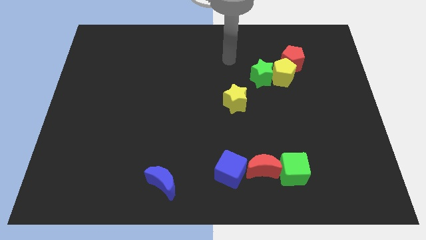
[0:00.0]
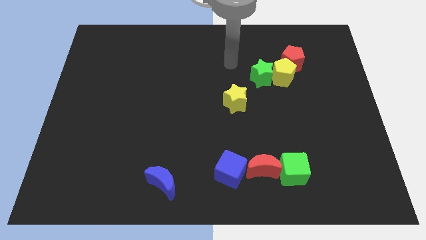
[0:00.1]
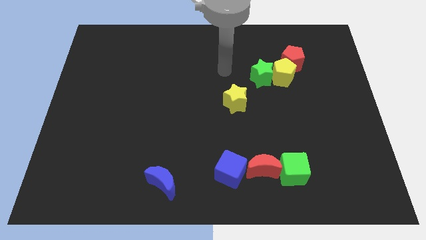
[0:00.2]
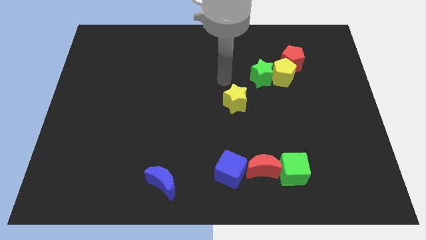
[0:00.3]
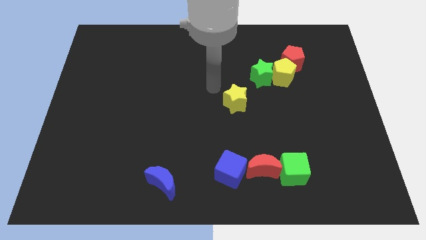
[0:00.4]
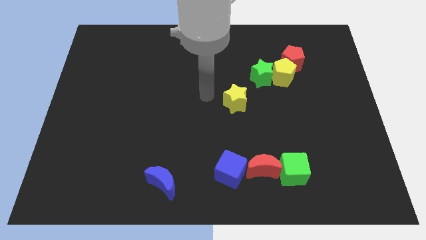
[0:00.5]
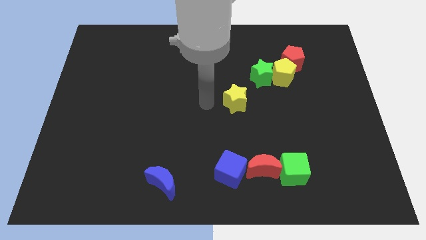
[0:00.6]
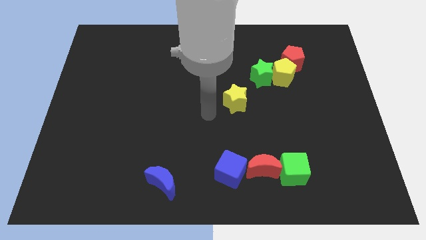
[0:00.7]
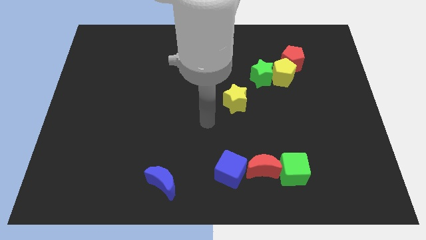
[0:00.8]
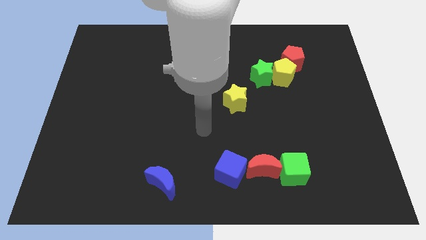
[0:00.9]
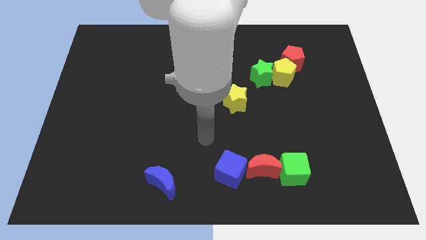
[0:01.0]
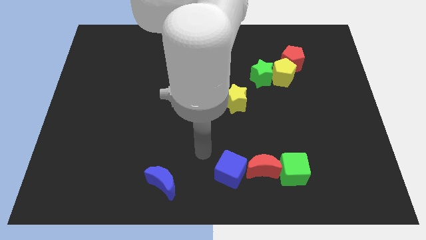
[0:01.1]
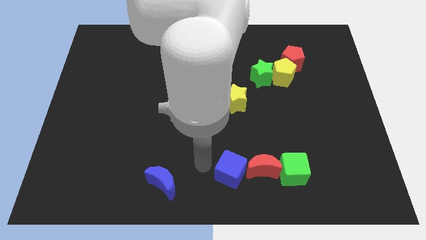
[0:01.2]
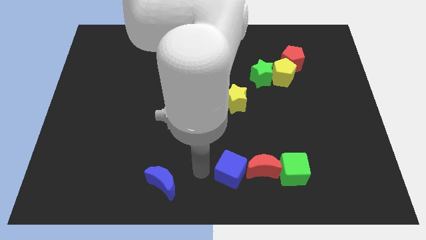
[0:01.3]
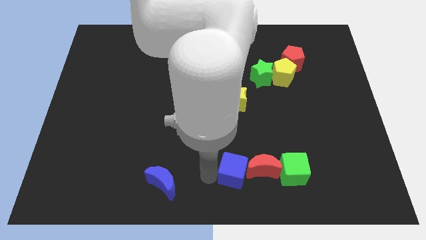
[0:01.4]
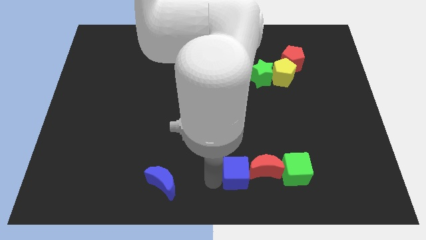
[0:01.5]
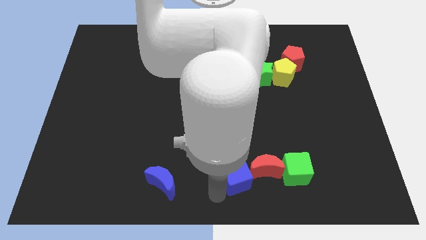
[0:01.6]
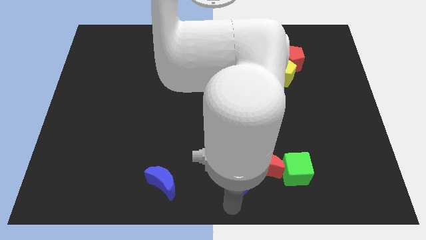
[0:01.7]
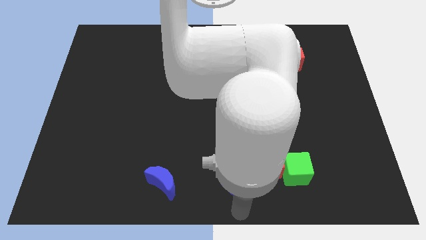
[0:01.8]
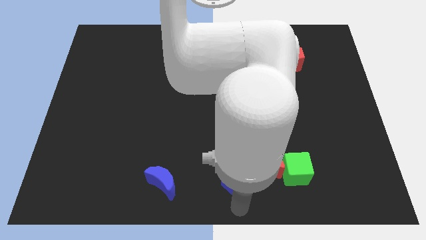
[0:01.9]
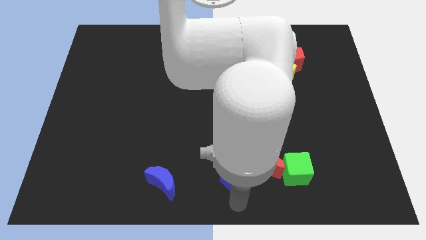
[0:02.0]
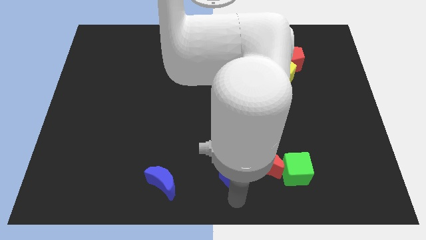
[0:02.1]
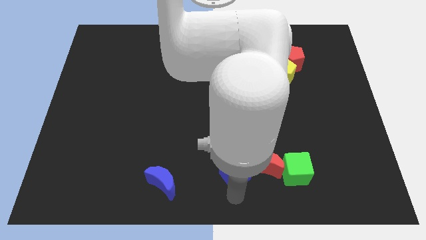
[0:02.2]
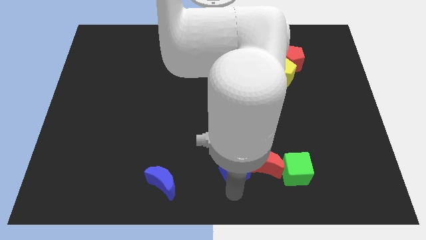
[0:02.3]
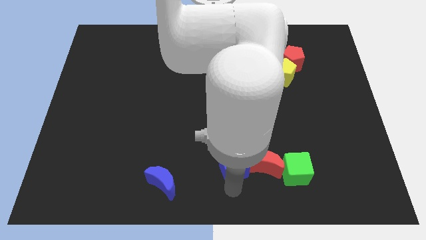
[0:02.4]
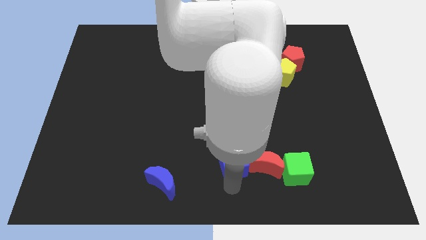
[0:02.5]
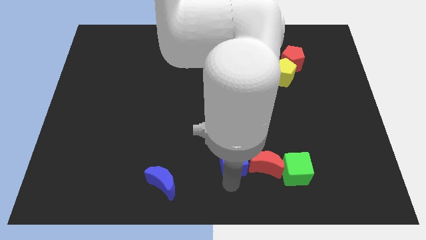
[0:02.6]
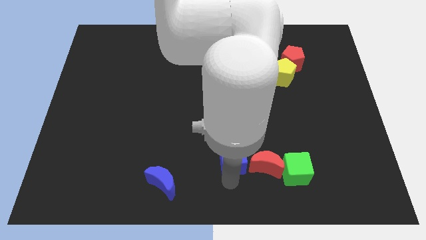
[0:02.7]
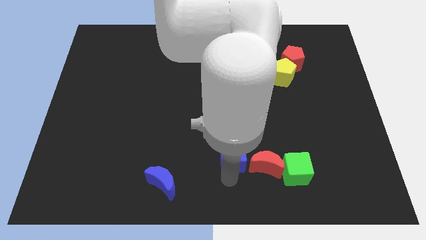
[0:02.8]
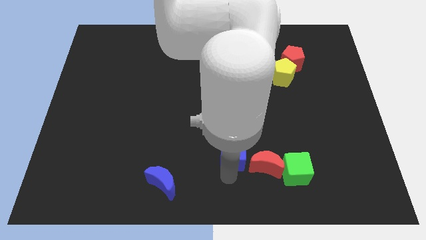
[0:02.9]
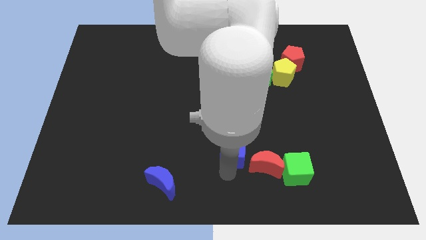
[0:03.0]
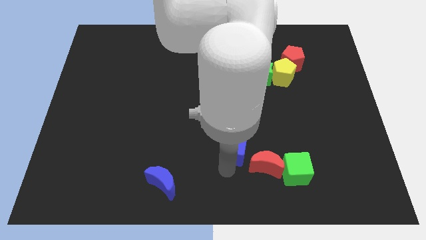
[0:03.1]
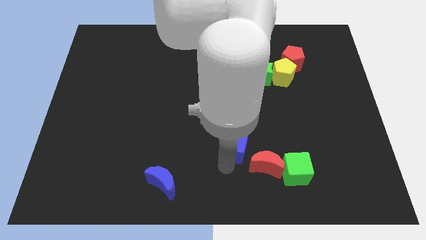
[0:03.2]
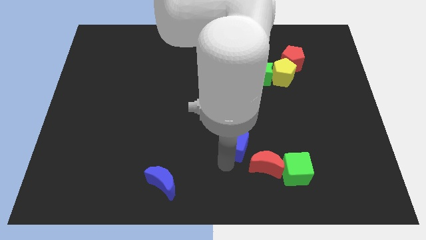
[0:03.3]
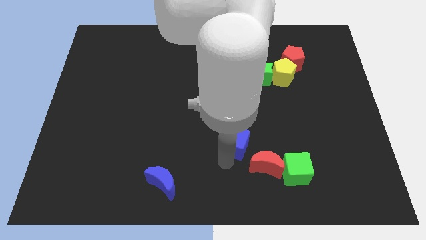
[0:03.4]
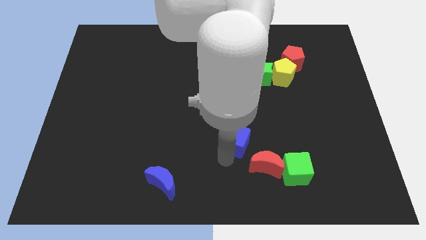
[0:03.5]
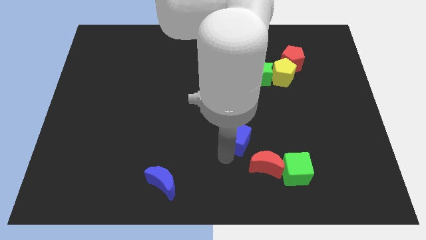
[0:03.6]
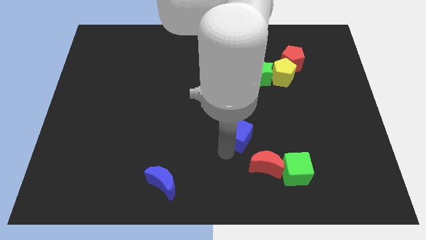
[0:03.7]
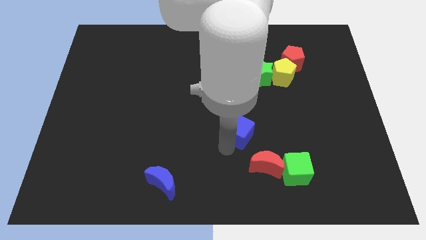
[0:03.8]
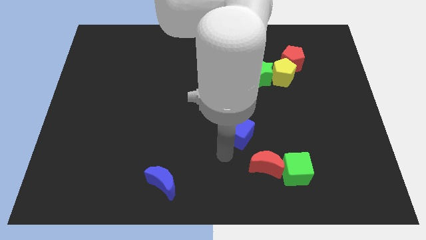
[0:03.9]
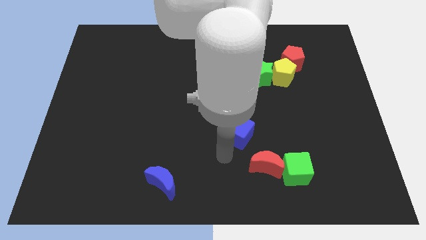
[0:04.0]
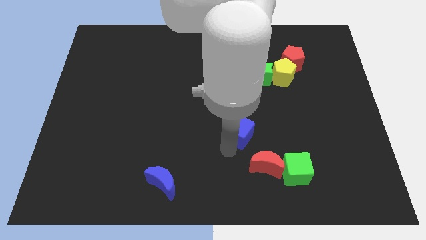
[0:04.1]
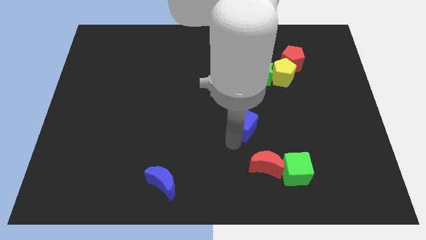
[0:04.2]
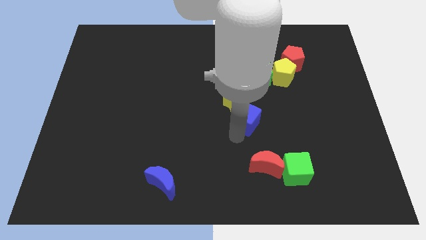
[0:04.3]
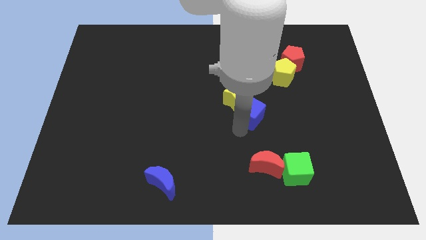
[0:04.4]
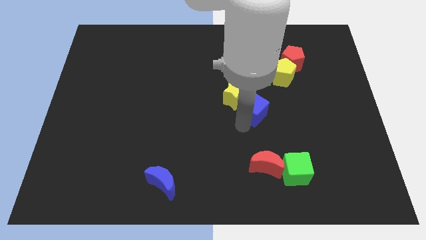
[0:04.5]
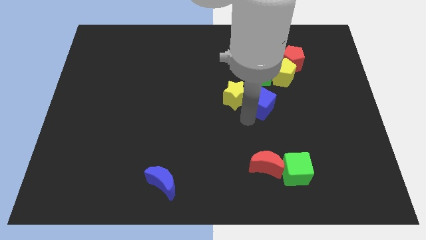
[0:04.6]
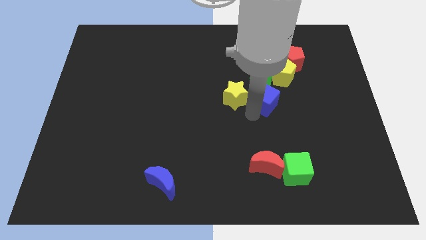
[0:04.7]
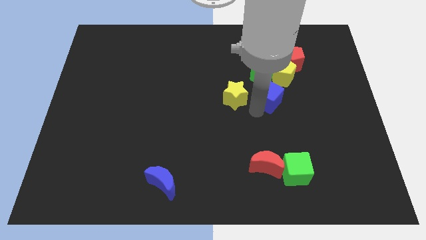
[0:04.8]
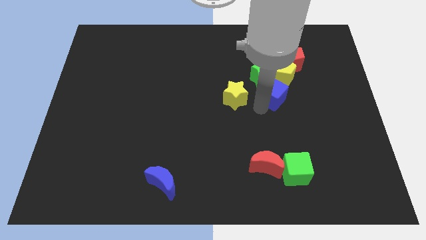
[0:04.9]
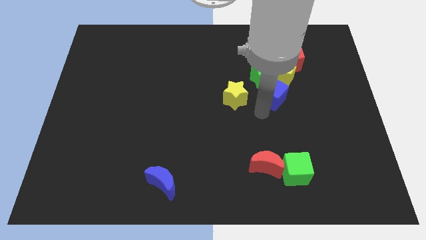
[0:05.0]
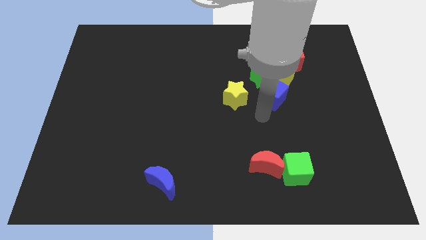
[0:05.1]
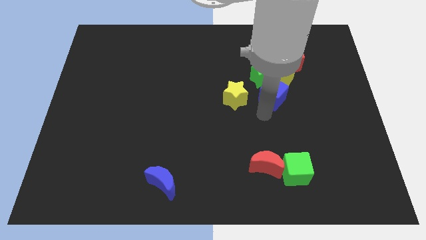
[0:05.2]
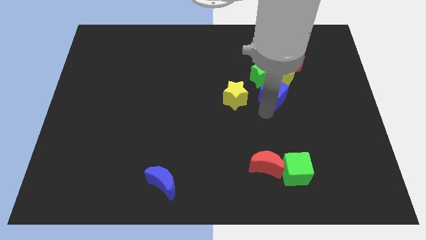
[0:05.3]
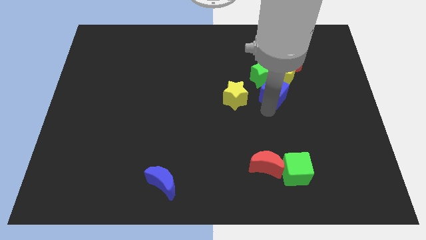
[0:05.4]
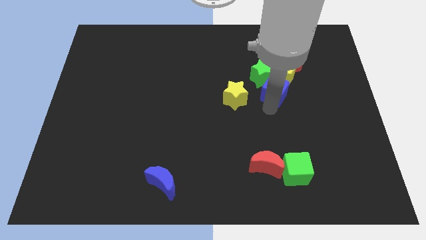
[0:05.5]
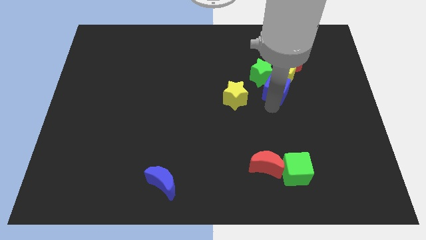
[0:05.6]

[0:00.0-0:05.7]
put the blue cube close to the yellow pentagon

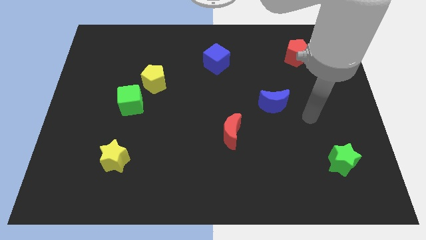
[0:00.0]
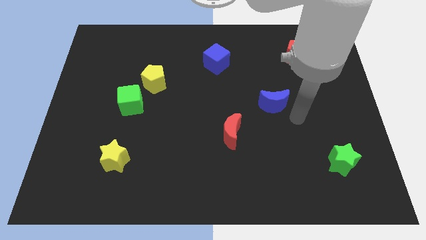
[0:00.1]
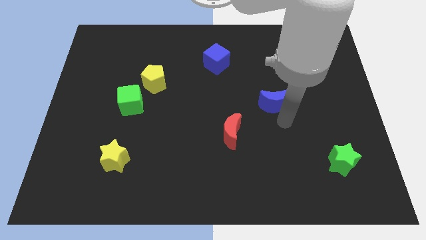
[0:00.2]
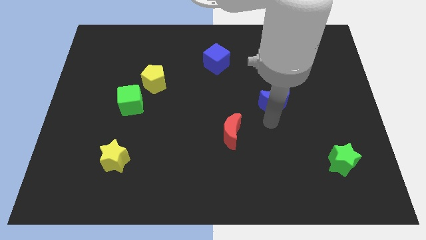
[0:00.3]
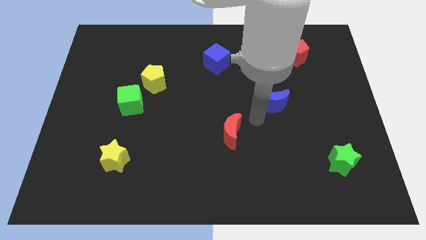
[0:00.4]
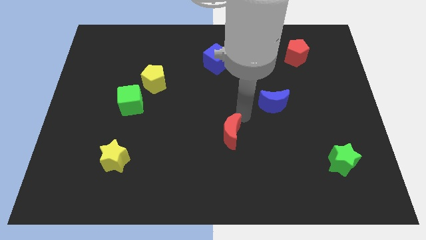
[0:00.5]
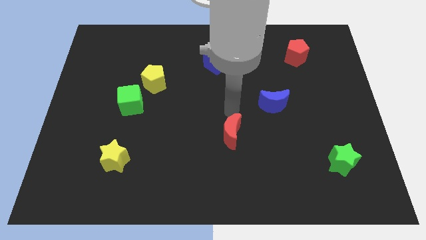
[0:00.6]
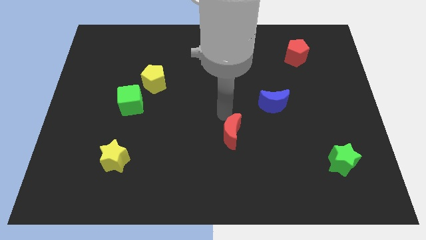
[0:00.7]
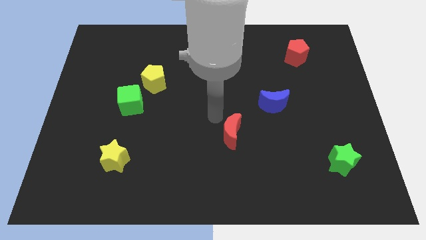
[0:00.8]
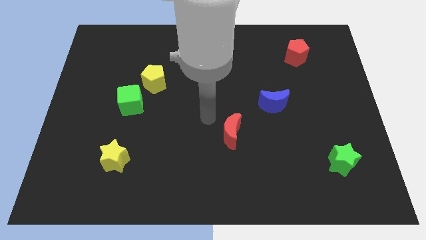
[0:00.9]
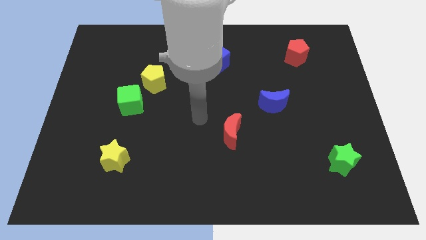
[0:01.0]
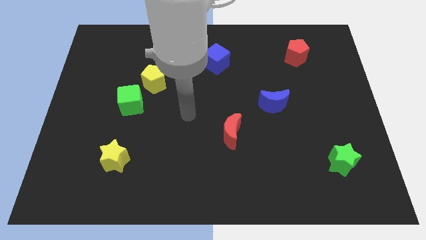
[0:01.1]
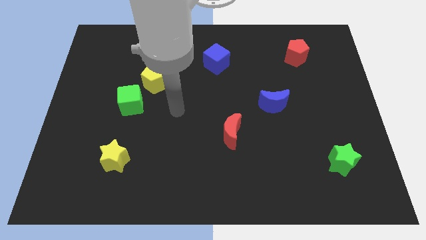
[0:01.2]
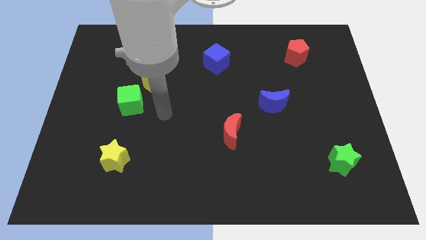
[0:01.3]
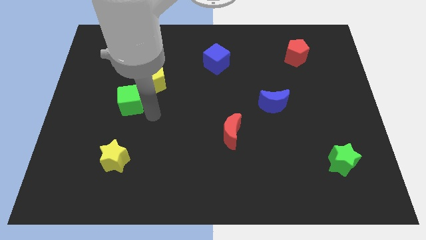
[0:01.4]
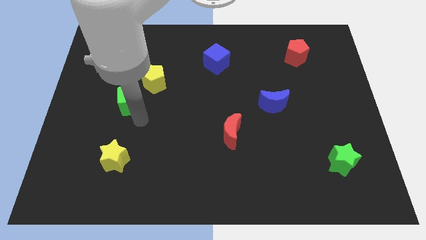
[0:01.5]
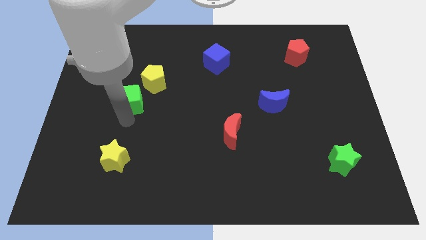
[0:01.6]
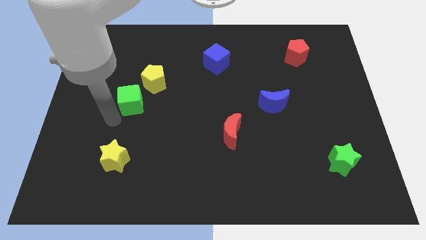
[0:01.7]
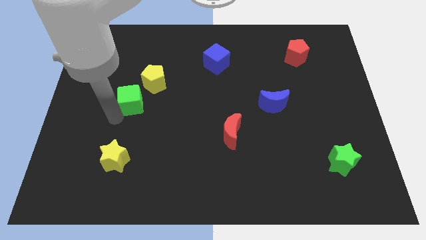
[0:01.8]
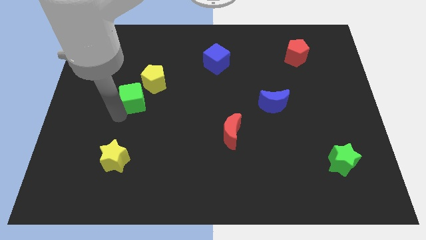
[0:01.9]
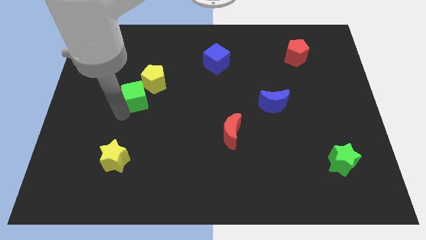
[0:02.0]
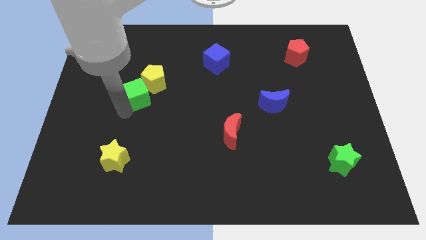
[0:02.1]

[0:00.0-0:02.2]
put the green cube close to the yellow pentagon
